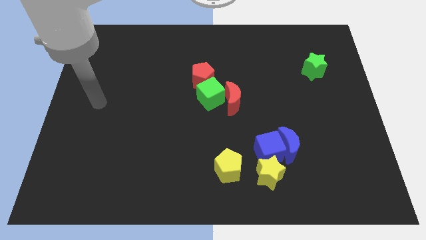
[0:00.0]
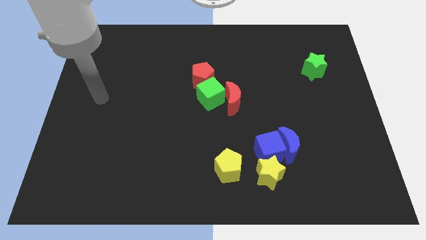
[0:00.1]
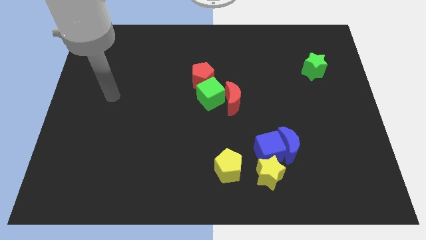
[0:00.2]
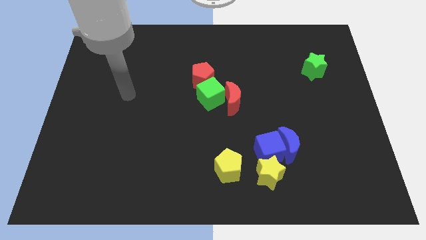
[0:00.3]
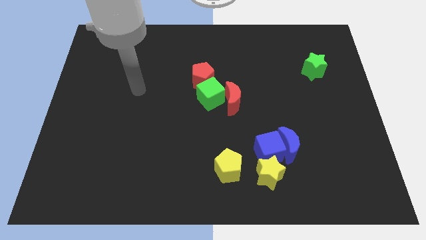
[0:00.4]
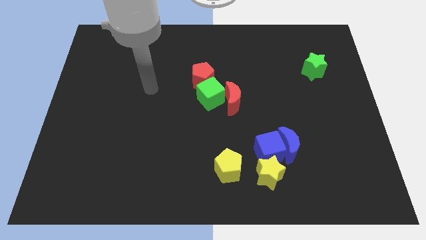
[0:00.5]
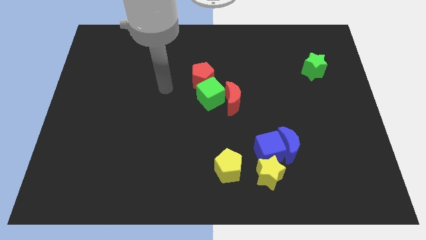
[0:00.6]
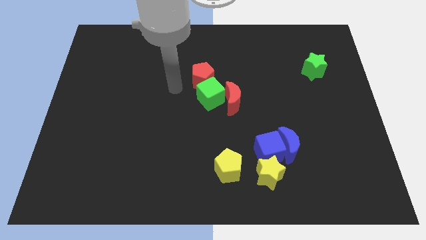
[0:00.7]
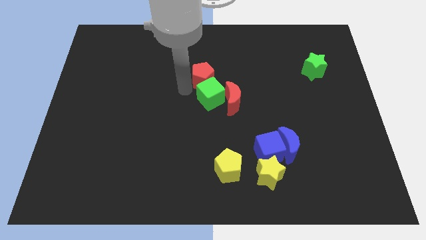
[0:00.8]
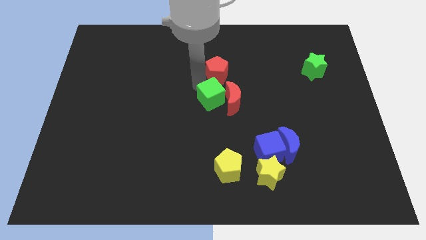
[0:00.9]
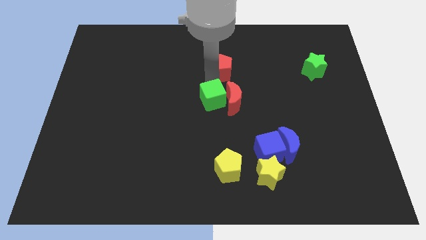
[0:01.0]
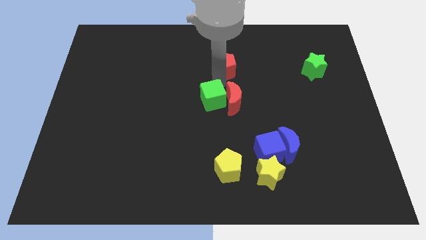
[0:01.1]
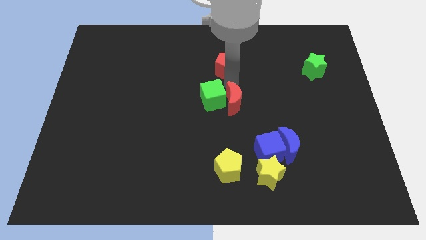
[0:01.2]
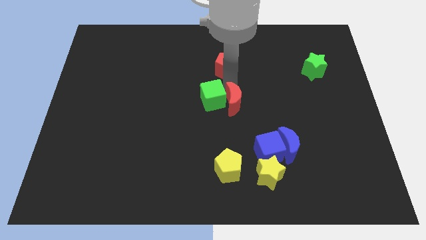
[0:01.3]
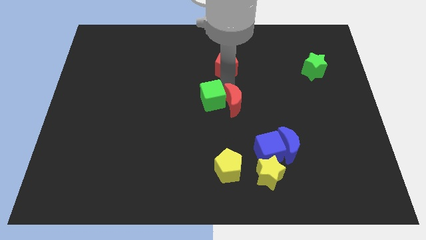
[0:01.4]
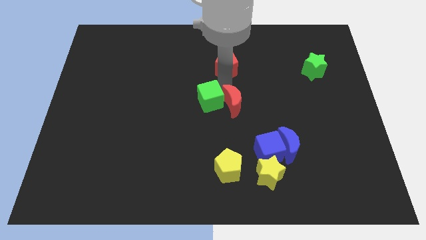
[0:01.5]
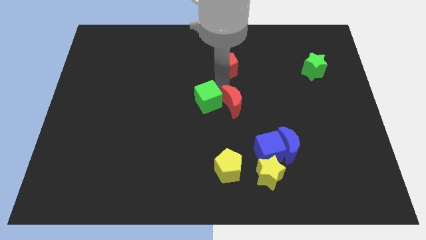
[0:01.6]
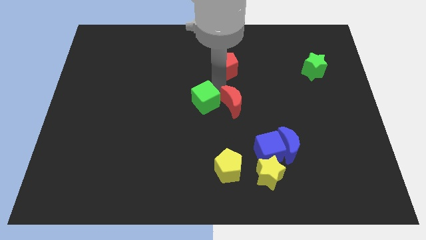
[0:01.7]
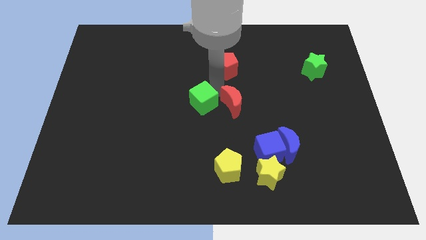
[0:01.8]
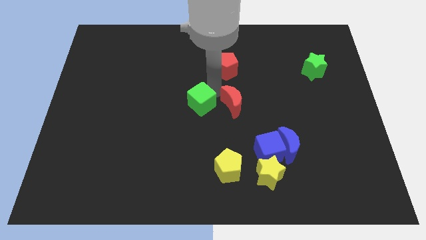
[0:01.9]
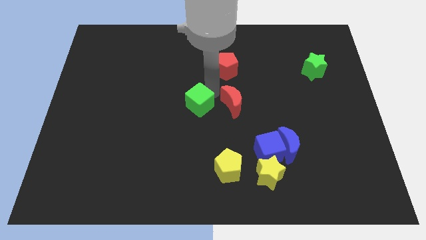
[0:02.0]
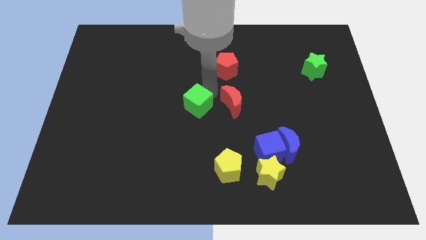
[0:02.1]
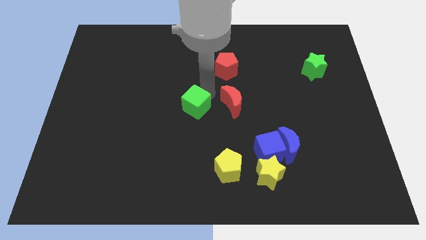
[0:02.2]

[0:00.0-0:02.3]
move the green cube away from the red moon and red pentagon

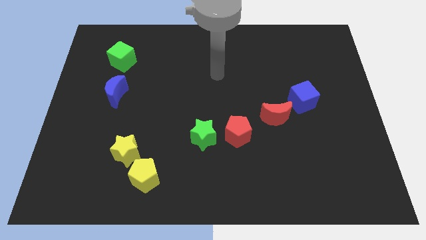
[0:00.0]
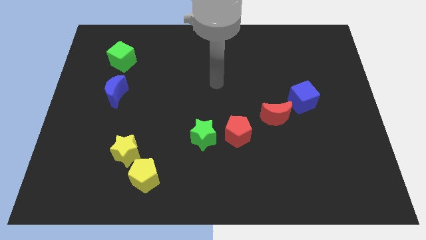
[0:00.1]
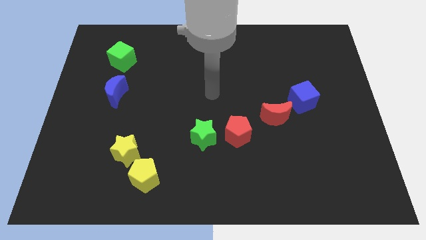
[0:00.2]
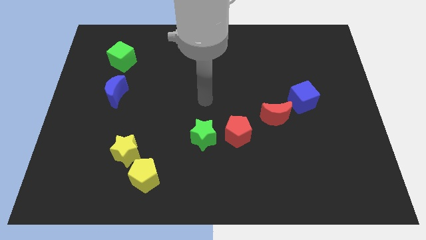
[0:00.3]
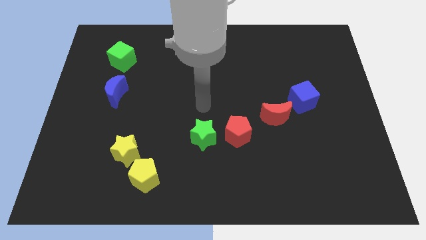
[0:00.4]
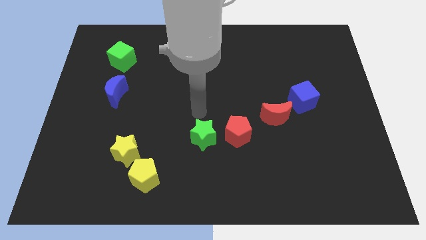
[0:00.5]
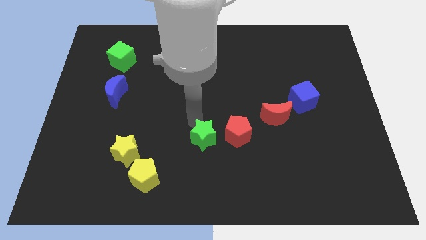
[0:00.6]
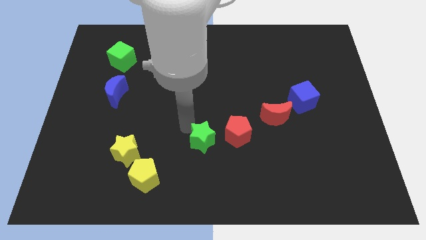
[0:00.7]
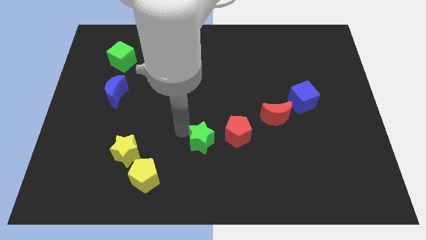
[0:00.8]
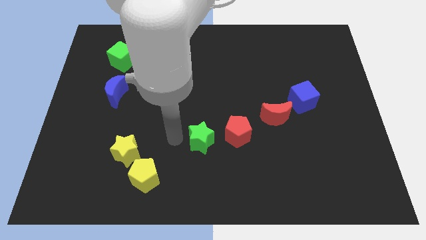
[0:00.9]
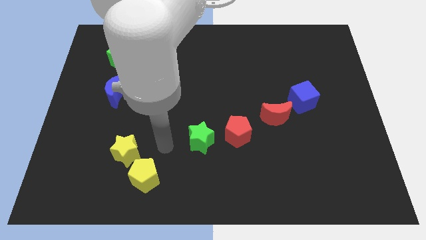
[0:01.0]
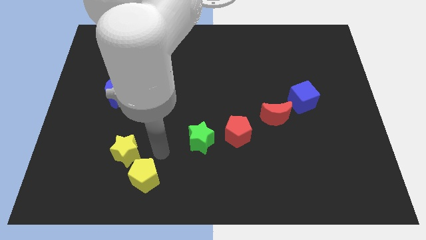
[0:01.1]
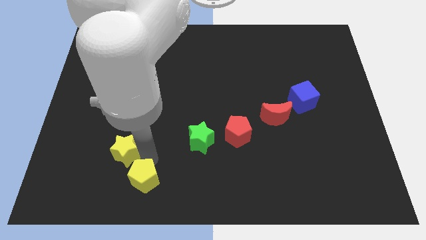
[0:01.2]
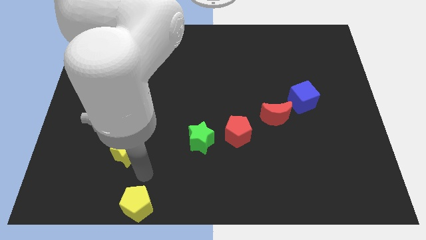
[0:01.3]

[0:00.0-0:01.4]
pull the yellow star apart from the yellow pentagon

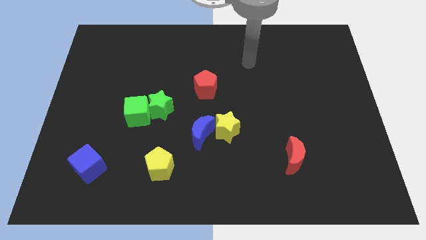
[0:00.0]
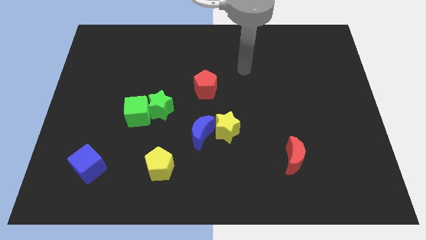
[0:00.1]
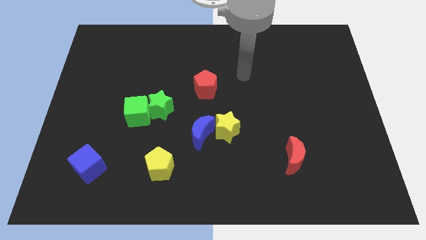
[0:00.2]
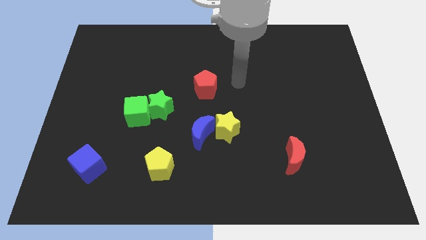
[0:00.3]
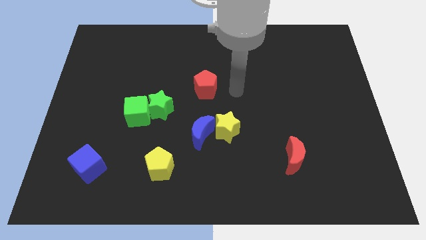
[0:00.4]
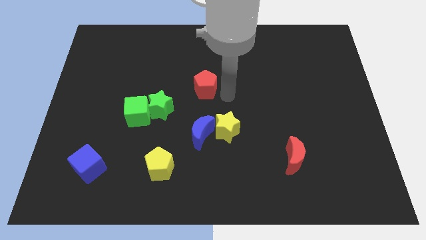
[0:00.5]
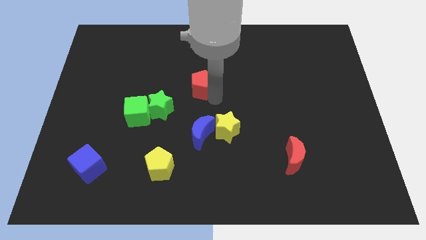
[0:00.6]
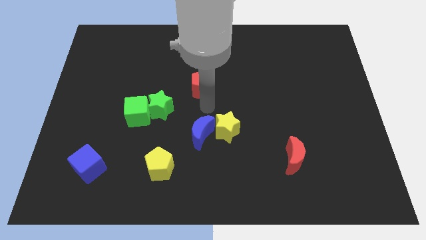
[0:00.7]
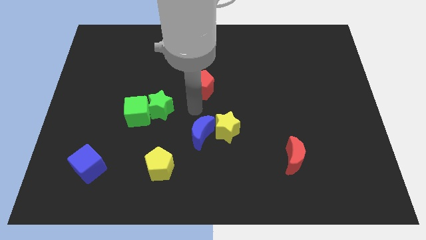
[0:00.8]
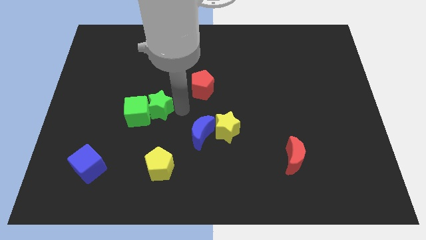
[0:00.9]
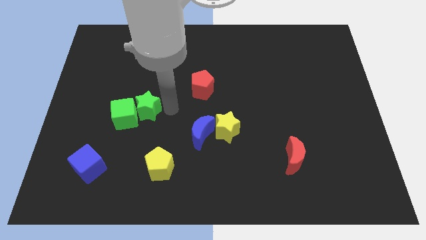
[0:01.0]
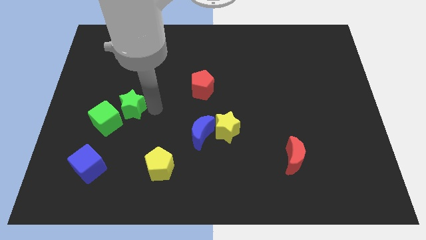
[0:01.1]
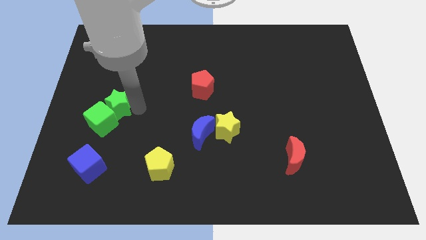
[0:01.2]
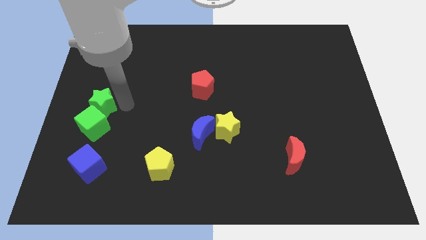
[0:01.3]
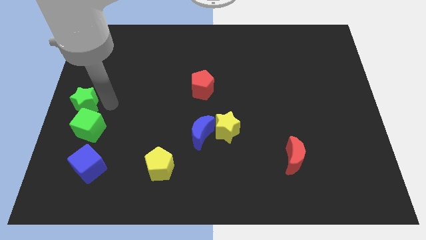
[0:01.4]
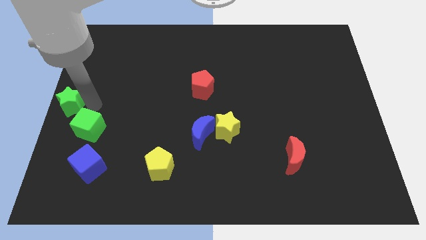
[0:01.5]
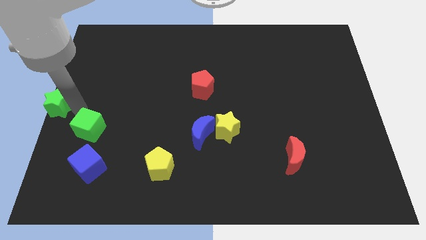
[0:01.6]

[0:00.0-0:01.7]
move the green cube away from the green star

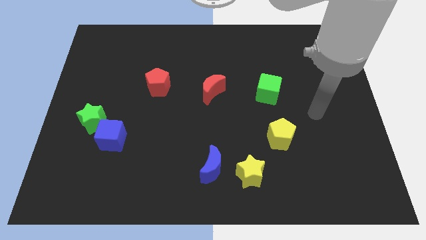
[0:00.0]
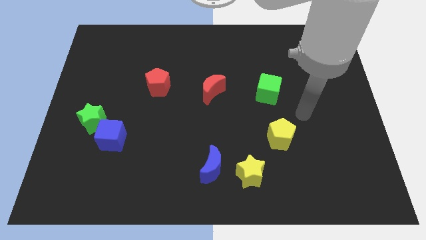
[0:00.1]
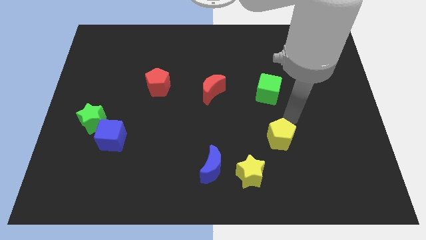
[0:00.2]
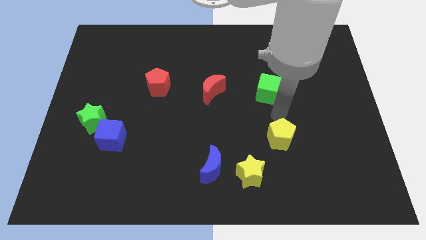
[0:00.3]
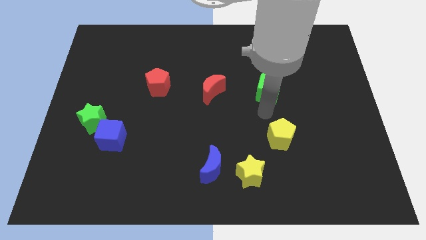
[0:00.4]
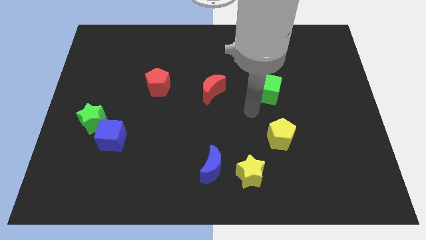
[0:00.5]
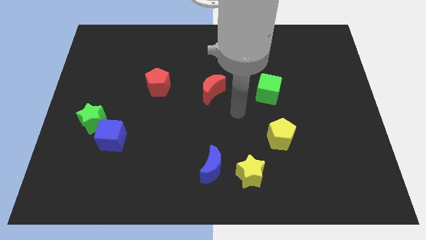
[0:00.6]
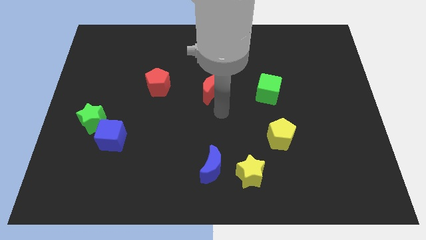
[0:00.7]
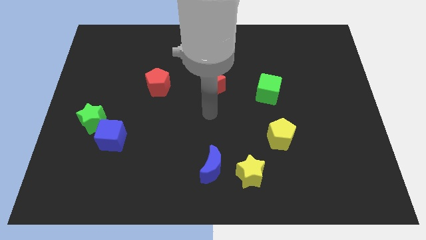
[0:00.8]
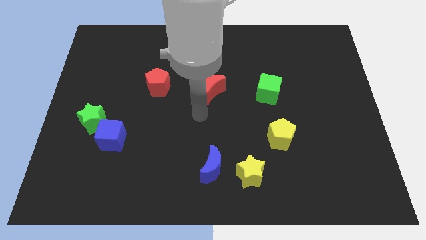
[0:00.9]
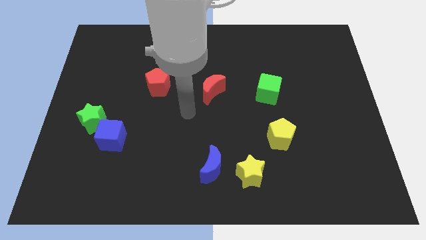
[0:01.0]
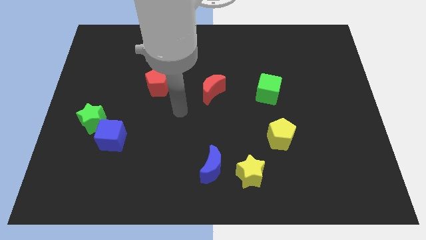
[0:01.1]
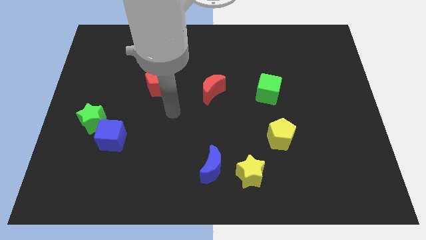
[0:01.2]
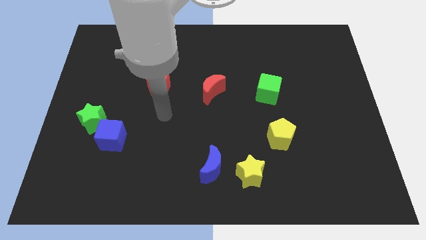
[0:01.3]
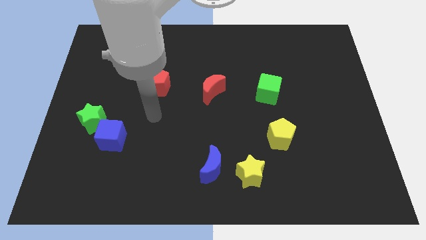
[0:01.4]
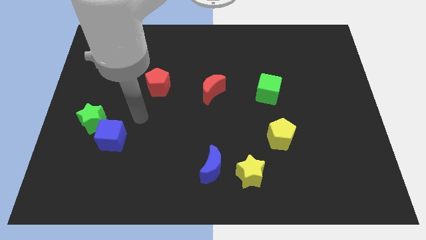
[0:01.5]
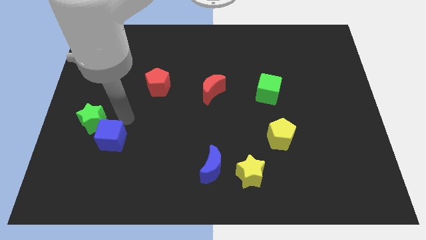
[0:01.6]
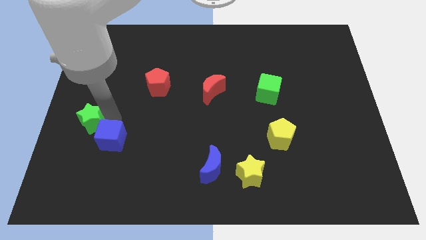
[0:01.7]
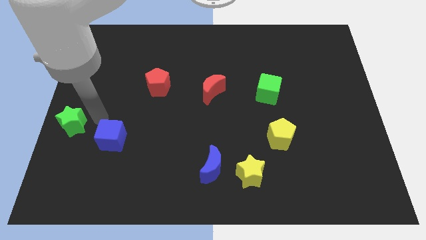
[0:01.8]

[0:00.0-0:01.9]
move the blue cube away from the green star

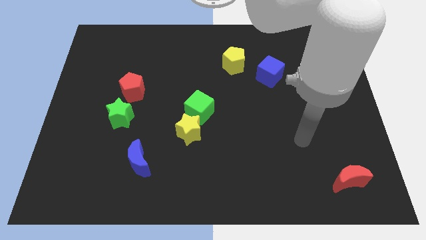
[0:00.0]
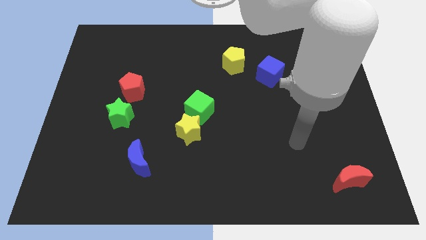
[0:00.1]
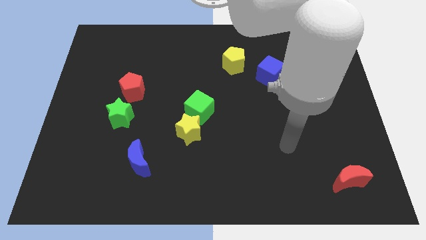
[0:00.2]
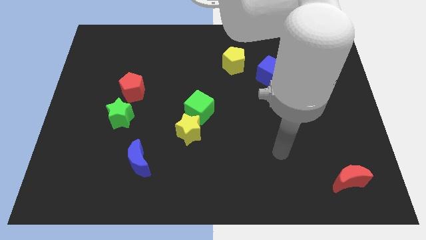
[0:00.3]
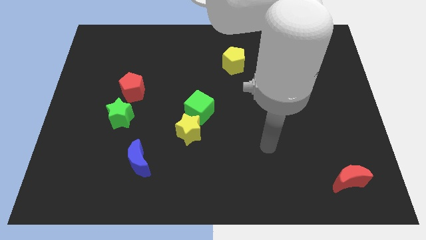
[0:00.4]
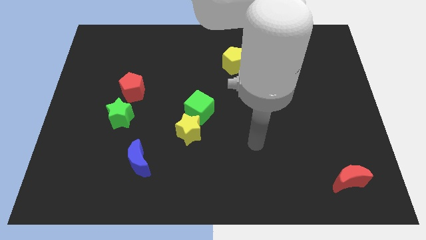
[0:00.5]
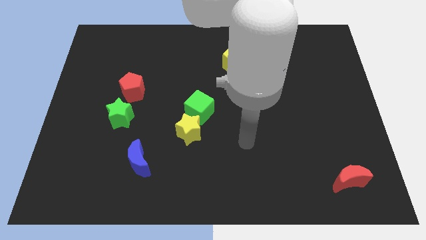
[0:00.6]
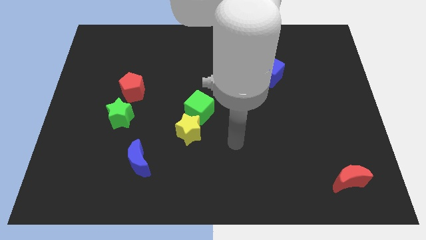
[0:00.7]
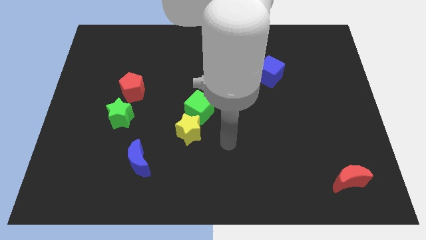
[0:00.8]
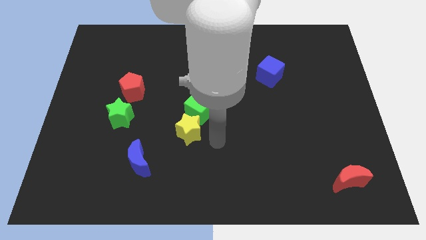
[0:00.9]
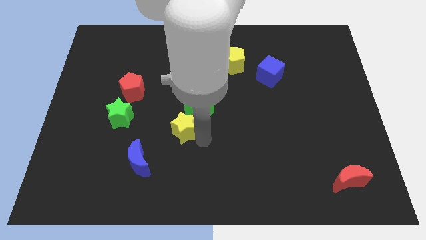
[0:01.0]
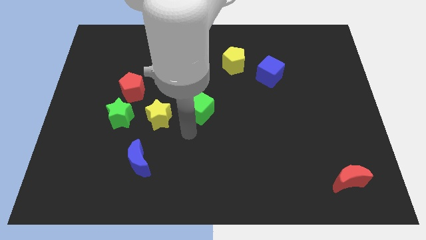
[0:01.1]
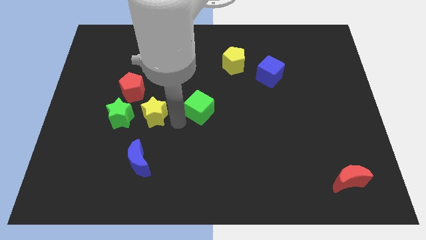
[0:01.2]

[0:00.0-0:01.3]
separate the green cube from the yellow star

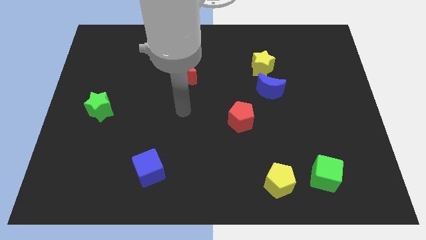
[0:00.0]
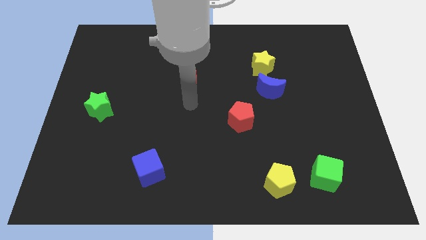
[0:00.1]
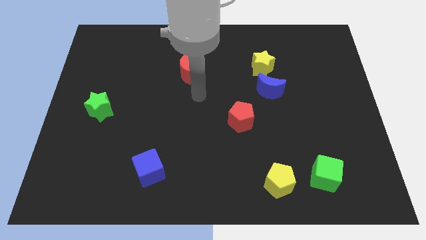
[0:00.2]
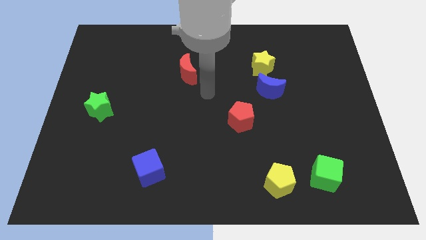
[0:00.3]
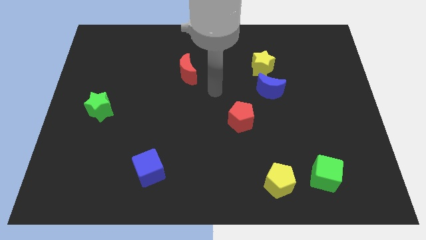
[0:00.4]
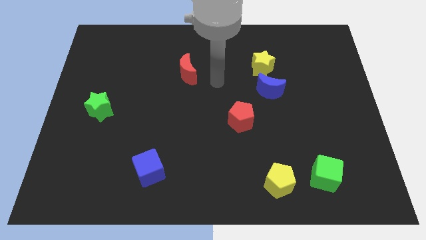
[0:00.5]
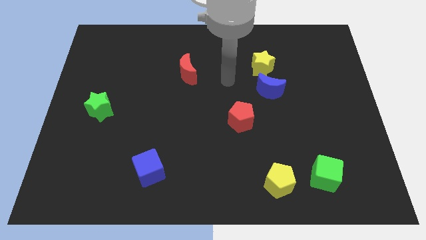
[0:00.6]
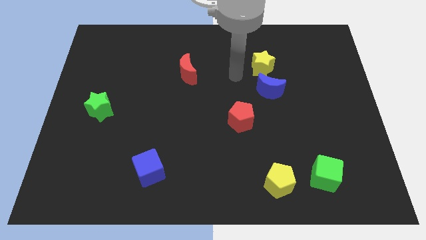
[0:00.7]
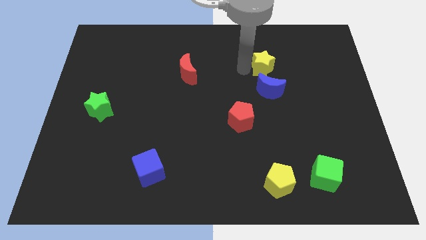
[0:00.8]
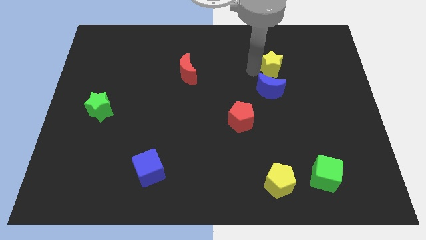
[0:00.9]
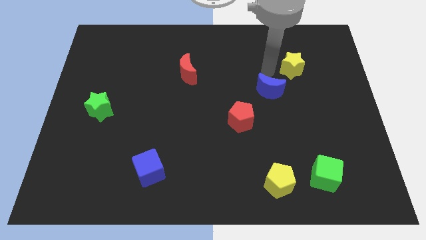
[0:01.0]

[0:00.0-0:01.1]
move the blue moon away from the yellow star
